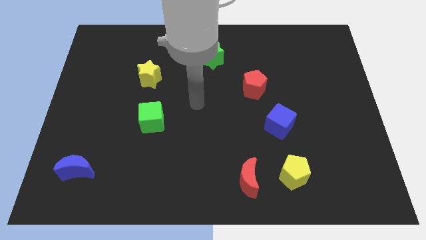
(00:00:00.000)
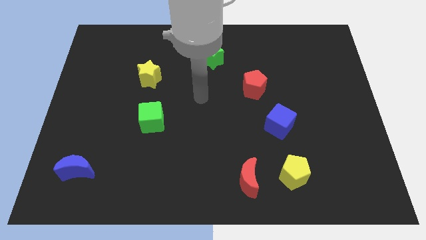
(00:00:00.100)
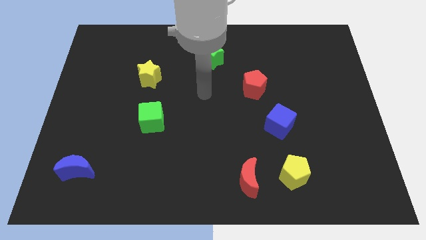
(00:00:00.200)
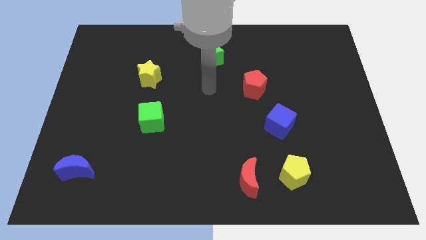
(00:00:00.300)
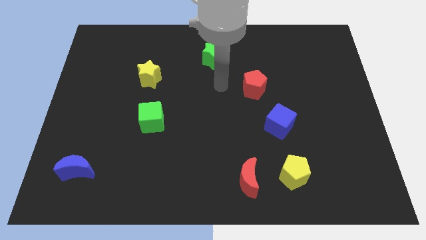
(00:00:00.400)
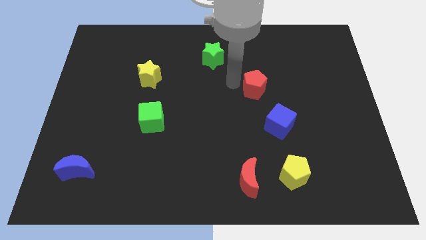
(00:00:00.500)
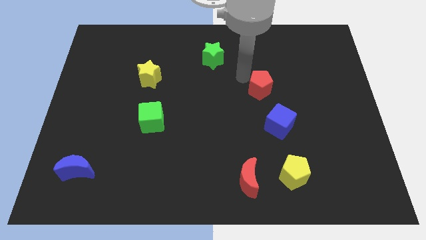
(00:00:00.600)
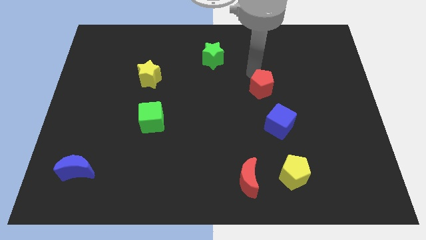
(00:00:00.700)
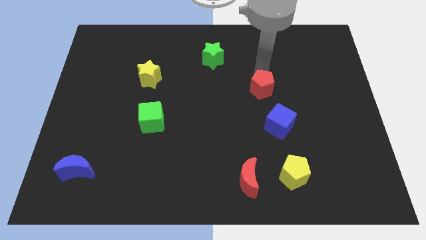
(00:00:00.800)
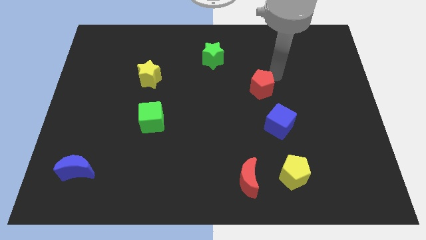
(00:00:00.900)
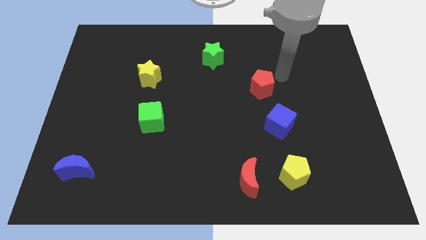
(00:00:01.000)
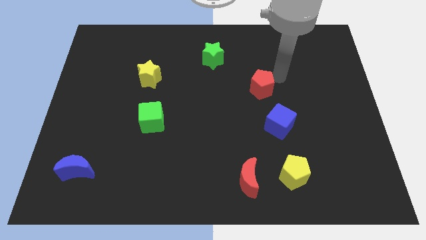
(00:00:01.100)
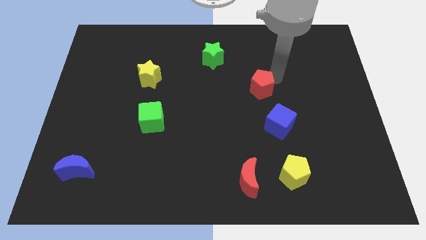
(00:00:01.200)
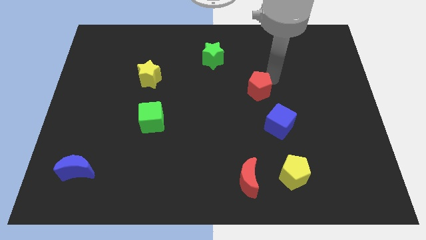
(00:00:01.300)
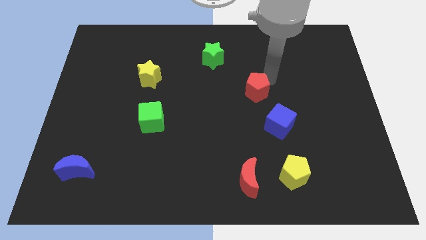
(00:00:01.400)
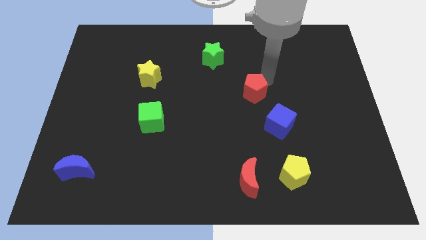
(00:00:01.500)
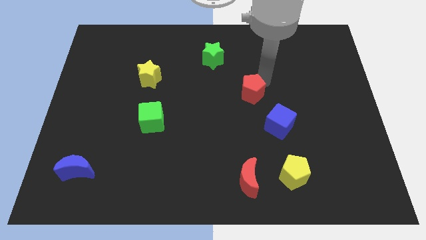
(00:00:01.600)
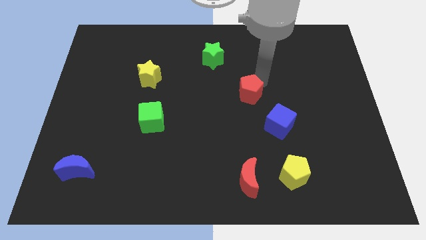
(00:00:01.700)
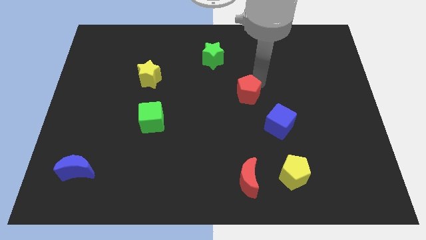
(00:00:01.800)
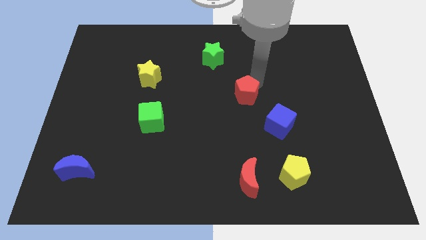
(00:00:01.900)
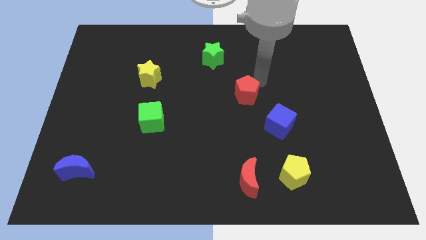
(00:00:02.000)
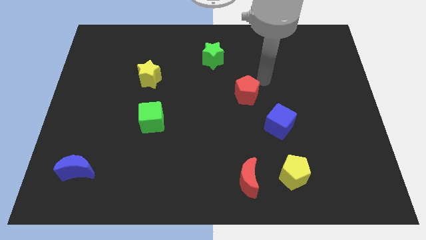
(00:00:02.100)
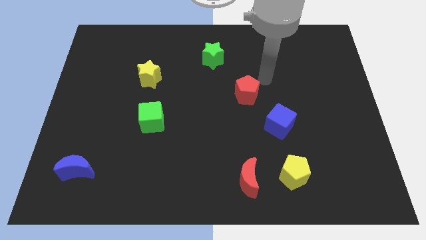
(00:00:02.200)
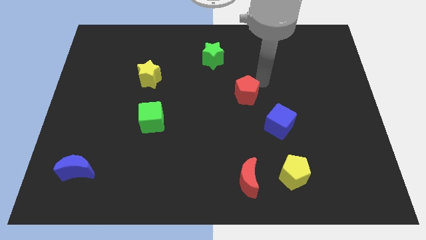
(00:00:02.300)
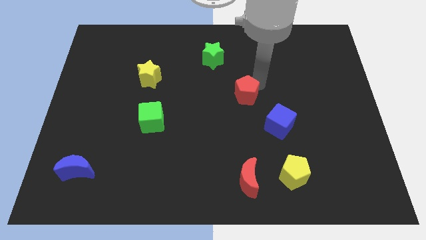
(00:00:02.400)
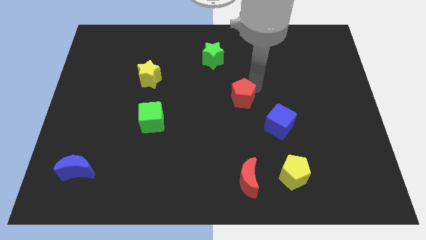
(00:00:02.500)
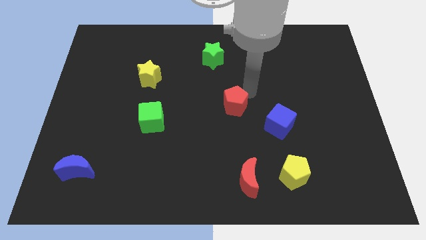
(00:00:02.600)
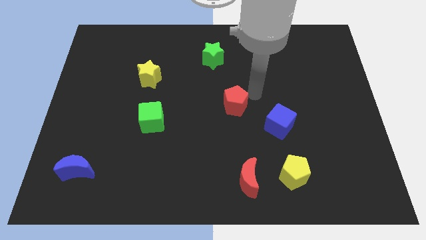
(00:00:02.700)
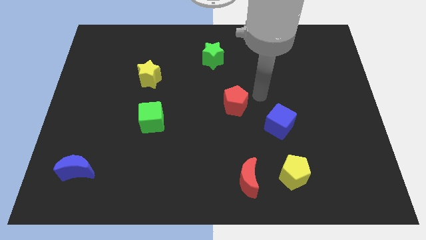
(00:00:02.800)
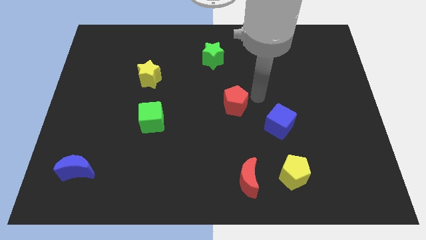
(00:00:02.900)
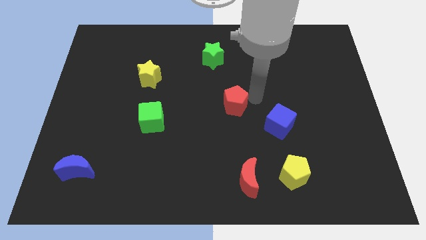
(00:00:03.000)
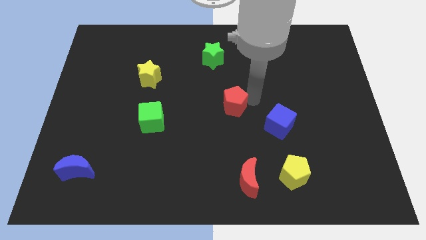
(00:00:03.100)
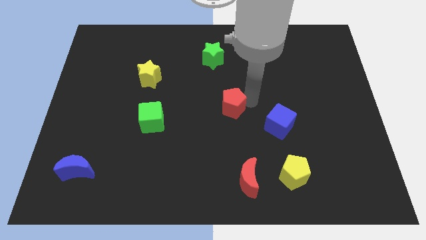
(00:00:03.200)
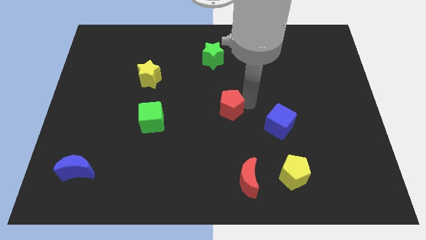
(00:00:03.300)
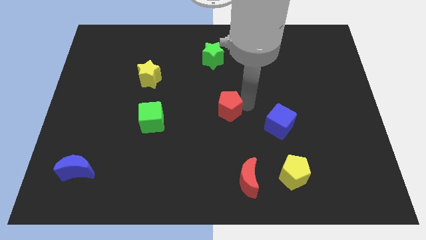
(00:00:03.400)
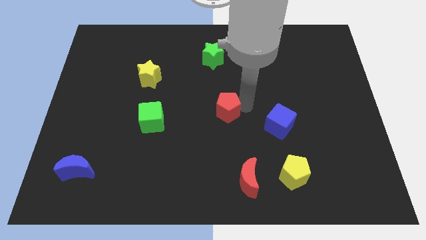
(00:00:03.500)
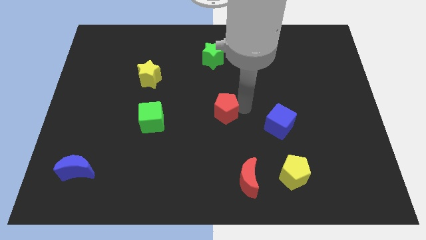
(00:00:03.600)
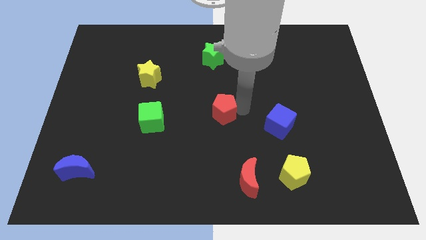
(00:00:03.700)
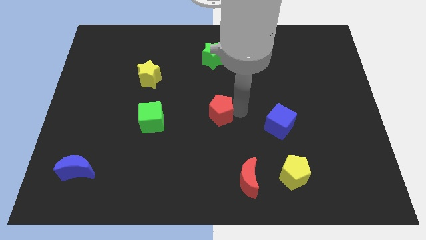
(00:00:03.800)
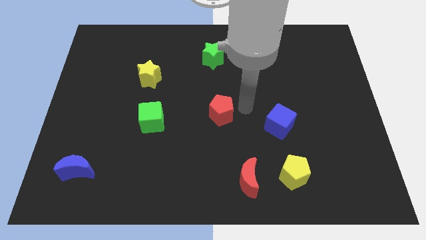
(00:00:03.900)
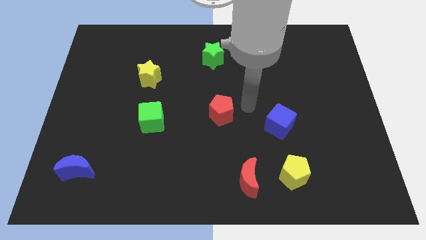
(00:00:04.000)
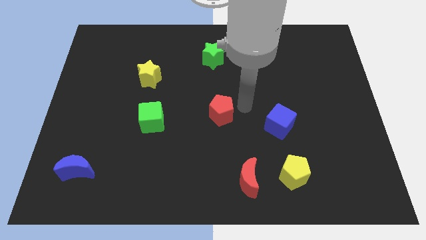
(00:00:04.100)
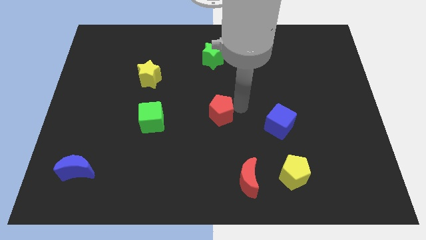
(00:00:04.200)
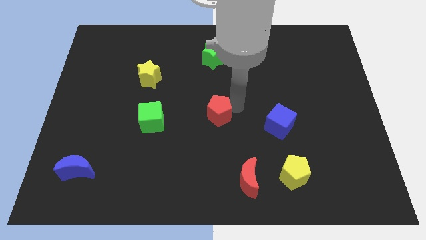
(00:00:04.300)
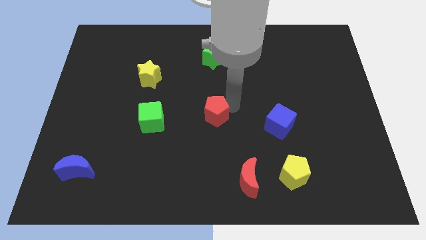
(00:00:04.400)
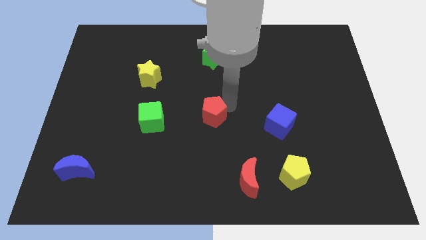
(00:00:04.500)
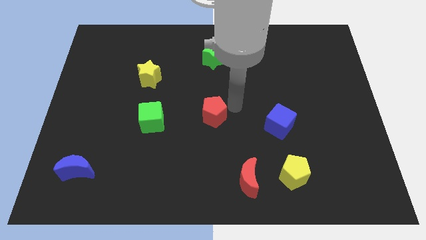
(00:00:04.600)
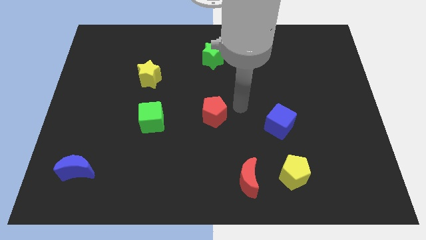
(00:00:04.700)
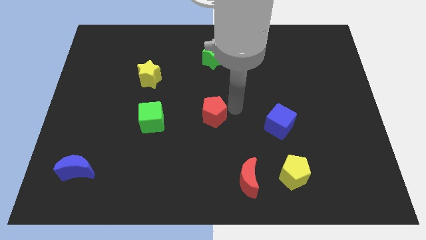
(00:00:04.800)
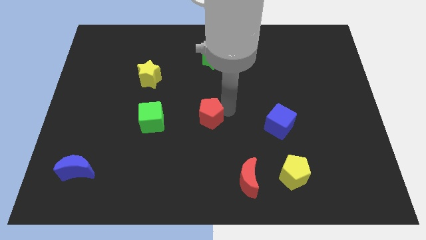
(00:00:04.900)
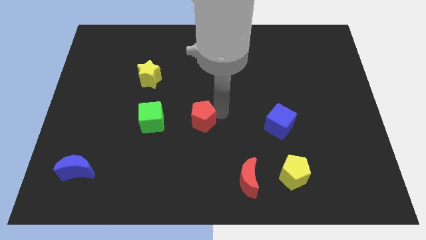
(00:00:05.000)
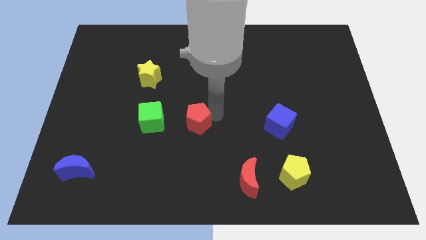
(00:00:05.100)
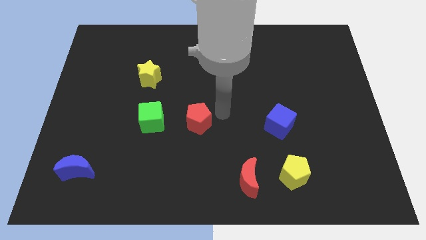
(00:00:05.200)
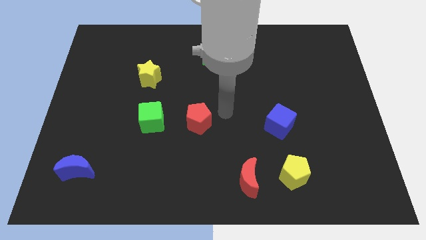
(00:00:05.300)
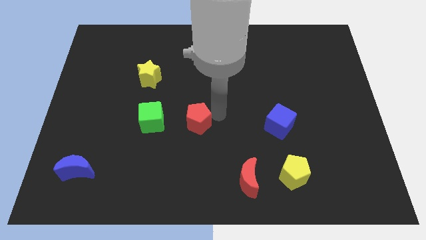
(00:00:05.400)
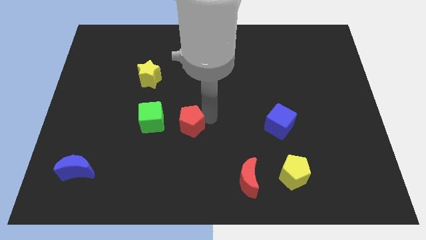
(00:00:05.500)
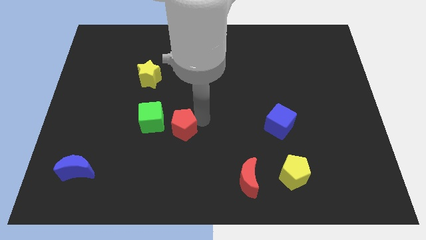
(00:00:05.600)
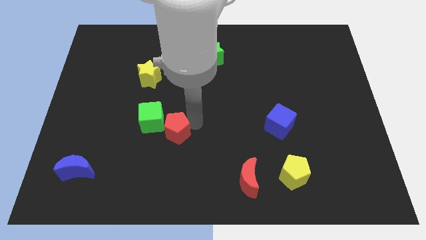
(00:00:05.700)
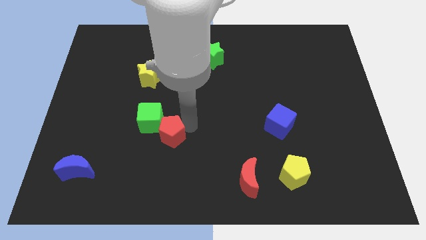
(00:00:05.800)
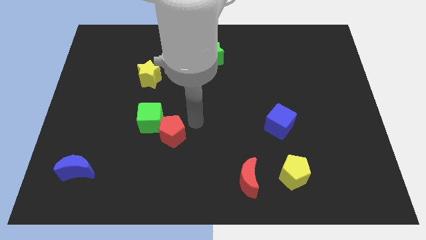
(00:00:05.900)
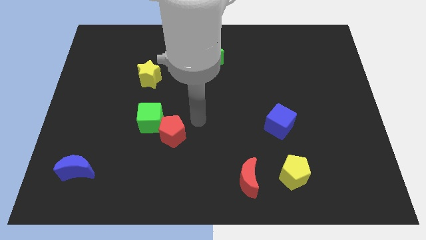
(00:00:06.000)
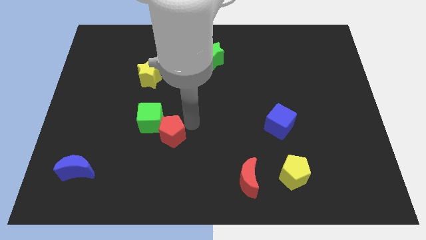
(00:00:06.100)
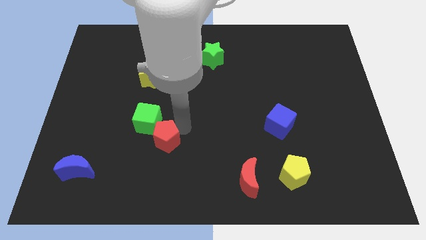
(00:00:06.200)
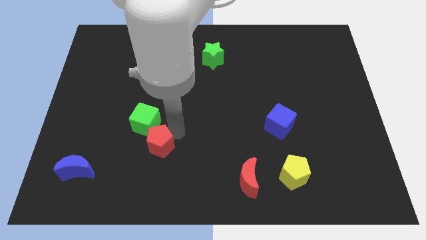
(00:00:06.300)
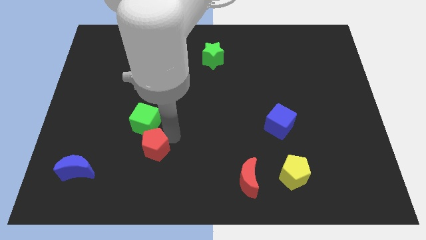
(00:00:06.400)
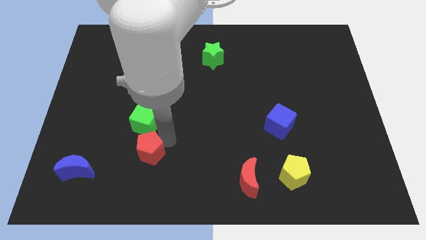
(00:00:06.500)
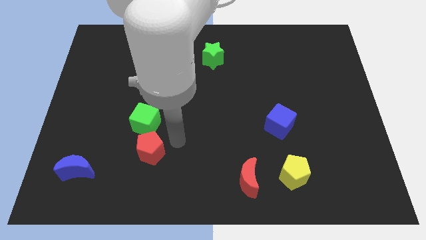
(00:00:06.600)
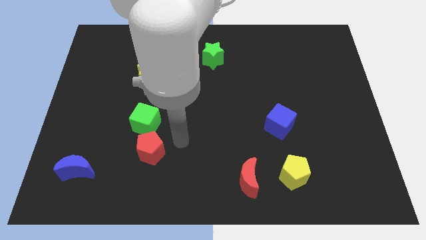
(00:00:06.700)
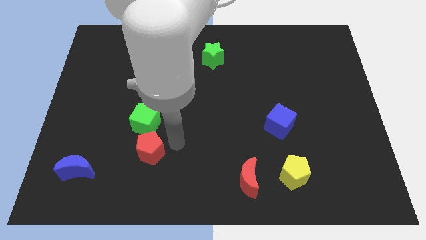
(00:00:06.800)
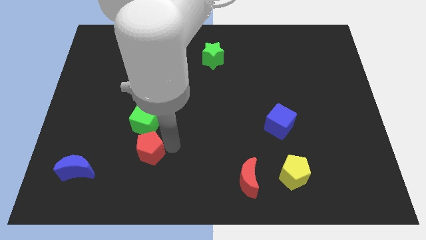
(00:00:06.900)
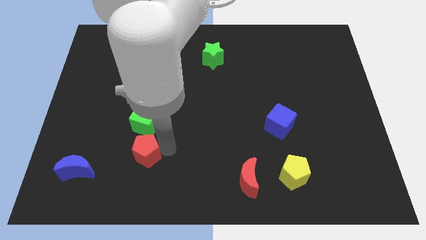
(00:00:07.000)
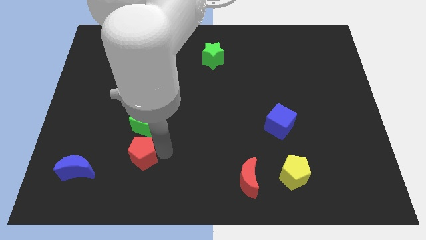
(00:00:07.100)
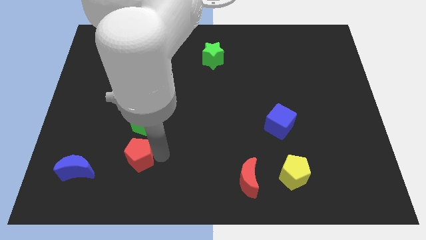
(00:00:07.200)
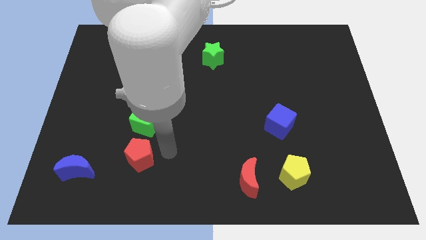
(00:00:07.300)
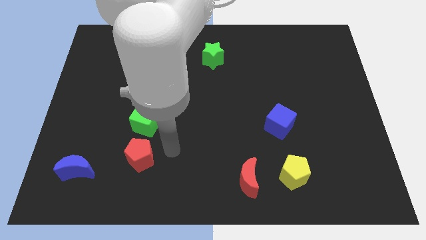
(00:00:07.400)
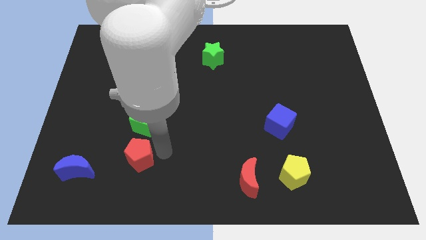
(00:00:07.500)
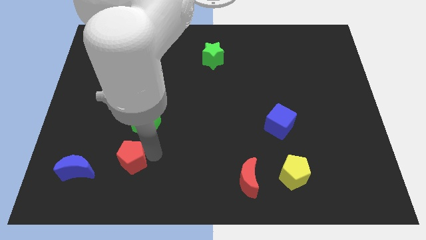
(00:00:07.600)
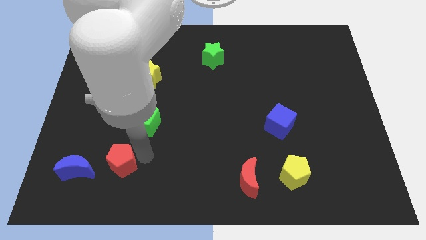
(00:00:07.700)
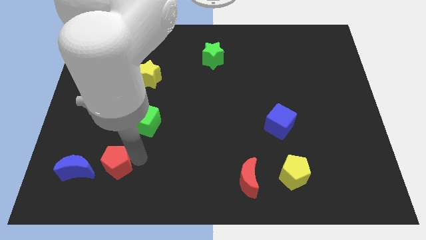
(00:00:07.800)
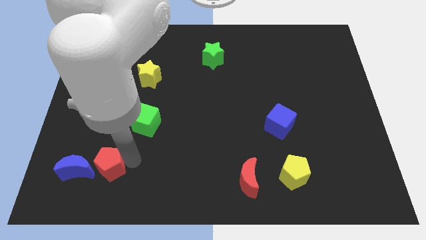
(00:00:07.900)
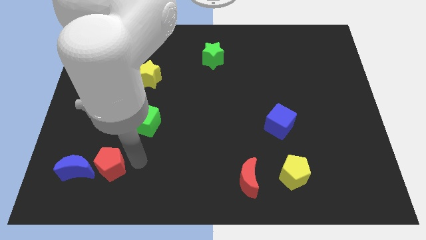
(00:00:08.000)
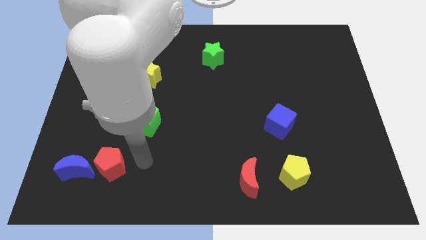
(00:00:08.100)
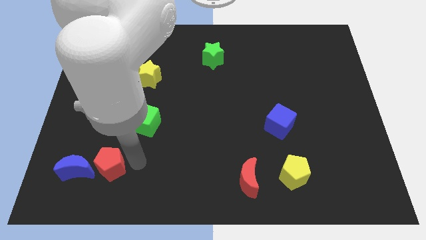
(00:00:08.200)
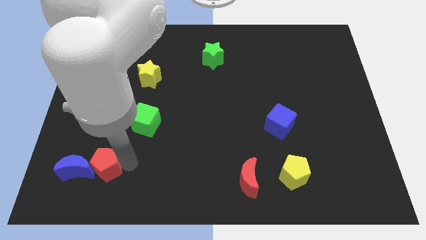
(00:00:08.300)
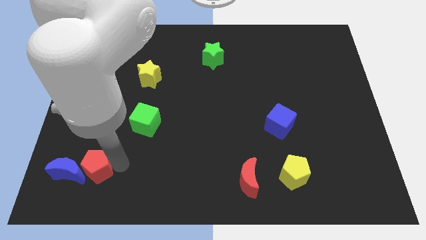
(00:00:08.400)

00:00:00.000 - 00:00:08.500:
push the red pentagon towards the blue moon

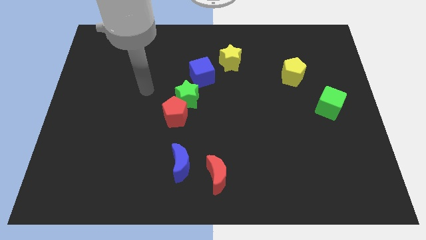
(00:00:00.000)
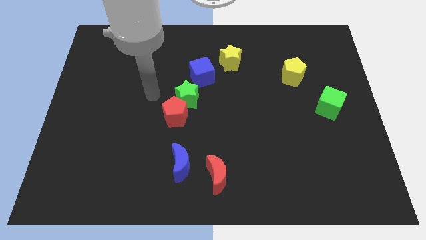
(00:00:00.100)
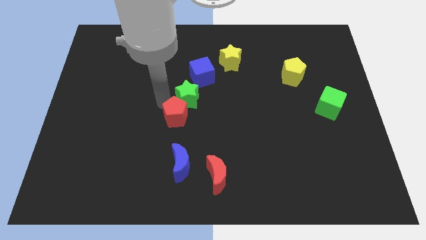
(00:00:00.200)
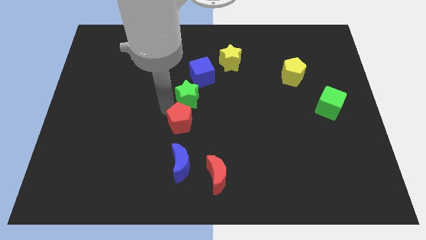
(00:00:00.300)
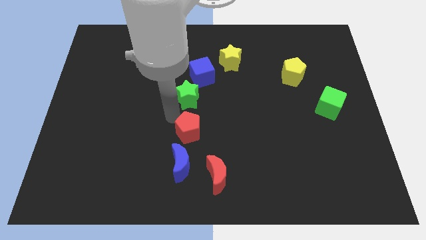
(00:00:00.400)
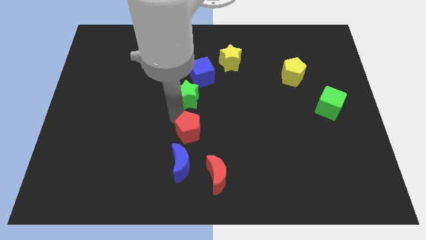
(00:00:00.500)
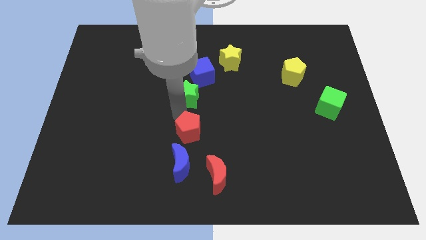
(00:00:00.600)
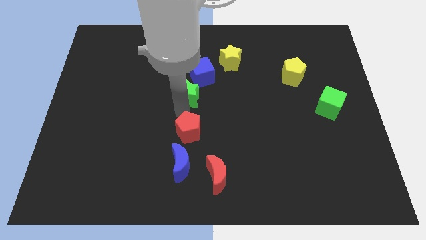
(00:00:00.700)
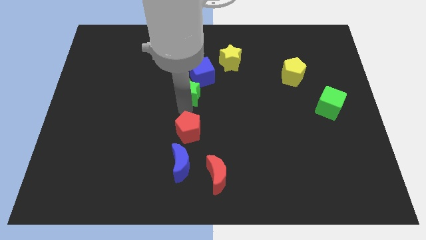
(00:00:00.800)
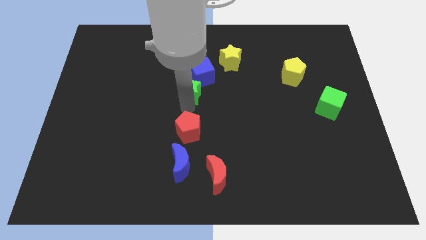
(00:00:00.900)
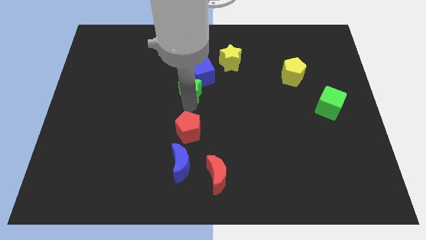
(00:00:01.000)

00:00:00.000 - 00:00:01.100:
slide the green star close to the blue cube
